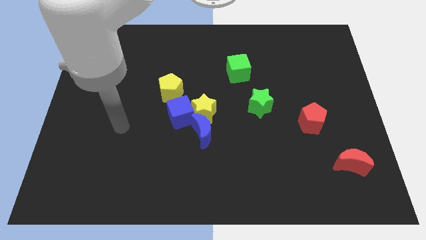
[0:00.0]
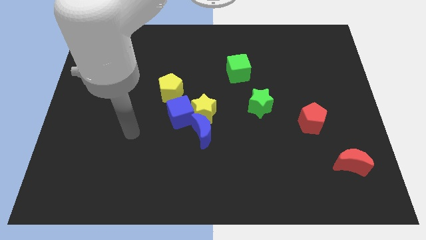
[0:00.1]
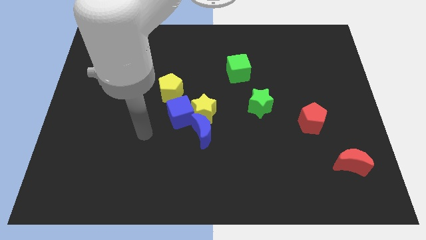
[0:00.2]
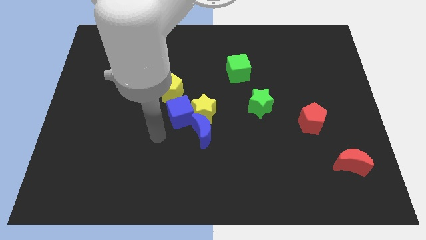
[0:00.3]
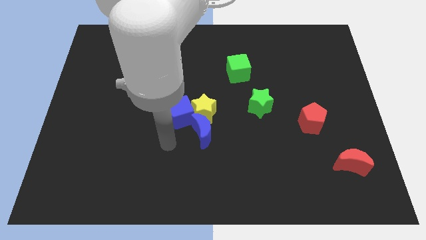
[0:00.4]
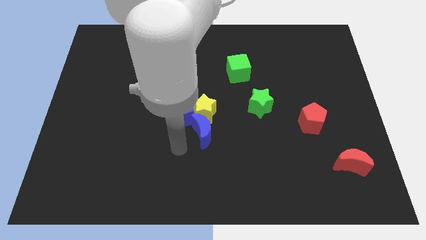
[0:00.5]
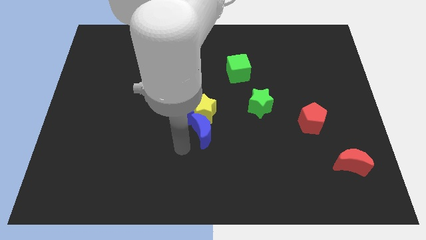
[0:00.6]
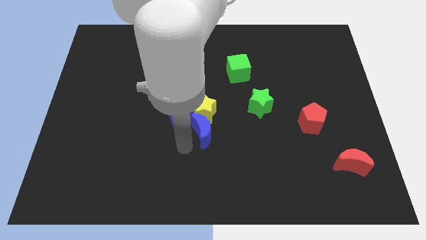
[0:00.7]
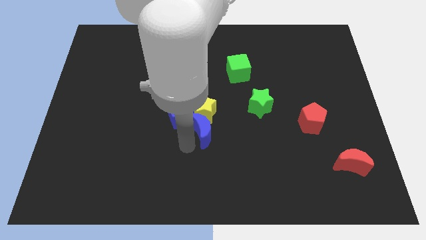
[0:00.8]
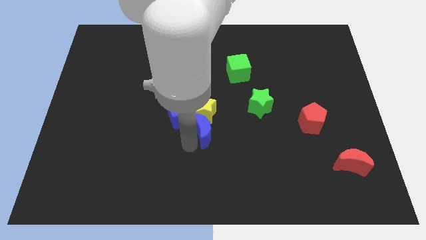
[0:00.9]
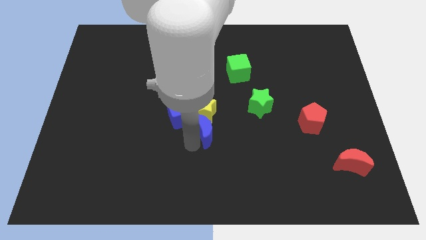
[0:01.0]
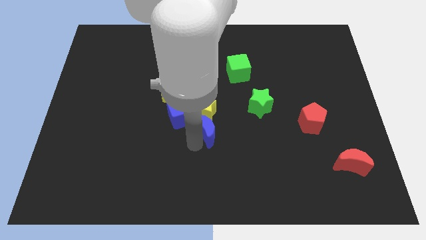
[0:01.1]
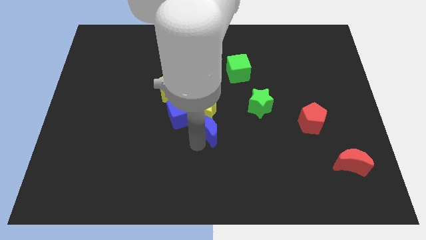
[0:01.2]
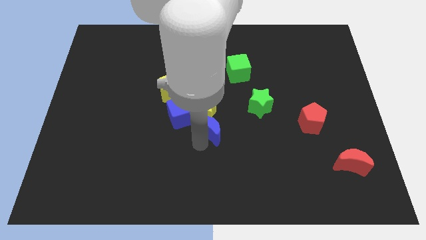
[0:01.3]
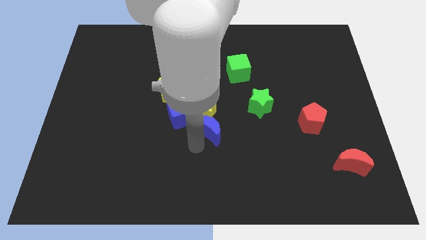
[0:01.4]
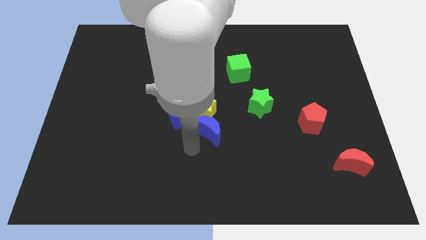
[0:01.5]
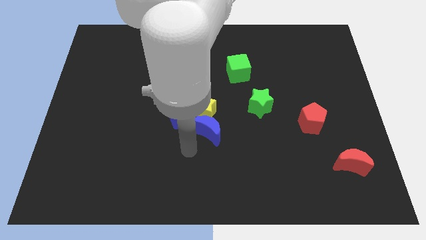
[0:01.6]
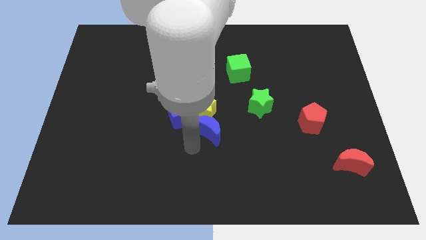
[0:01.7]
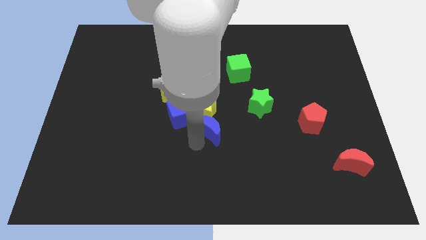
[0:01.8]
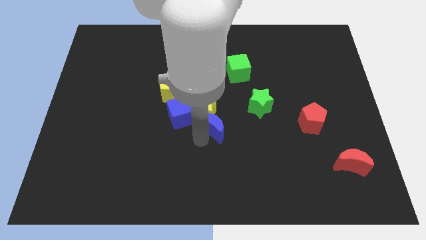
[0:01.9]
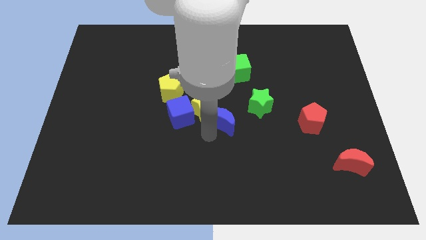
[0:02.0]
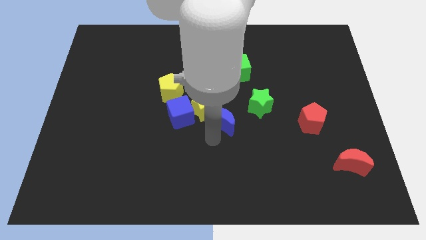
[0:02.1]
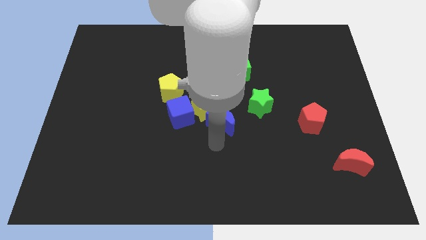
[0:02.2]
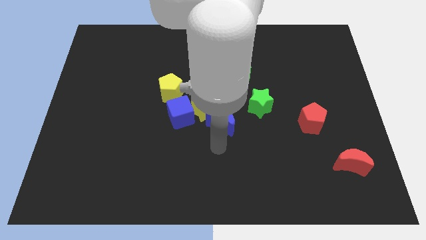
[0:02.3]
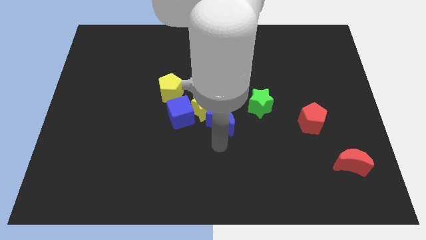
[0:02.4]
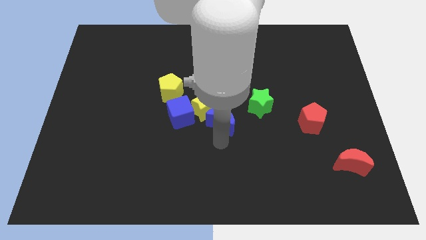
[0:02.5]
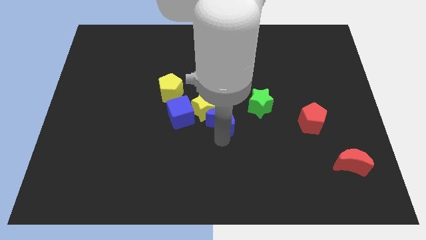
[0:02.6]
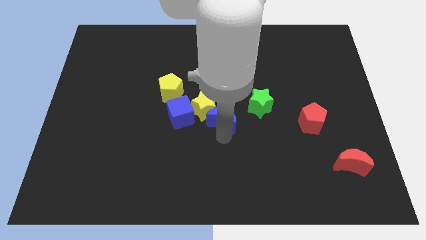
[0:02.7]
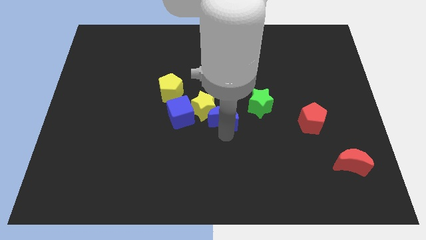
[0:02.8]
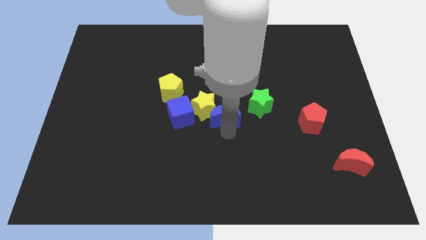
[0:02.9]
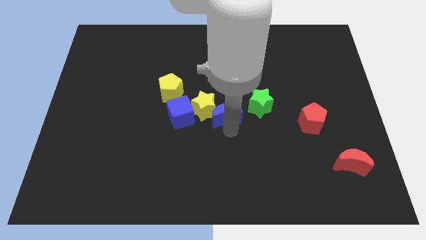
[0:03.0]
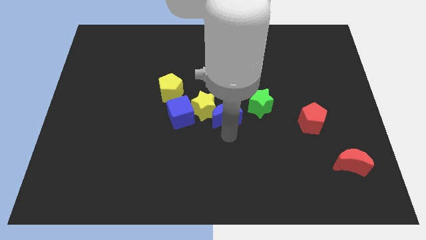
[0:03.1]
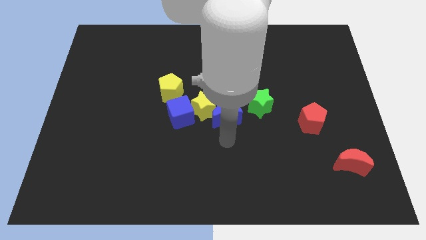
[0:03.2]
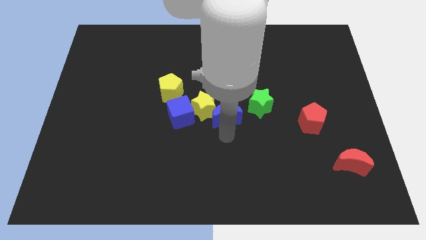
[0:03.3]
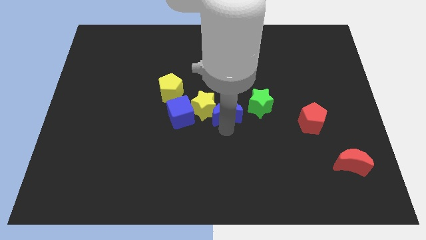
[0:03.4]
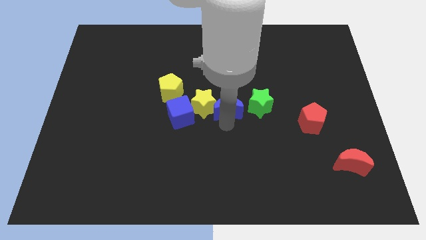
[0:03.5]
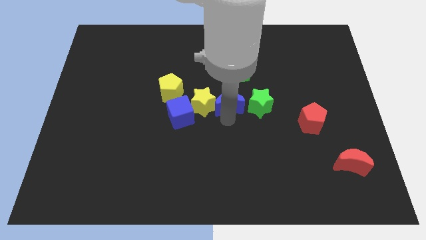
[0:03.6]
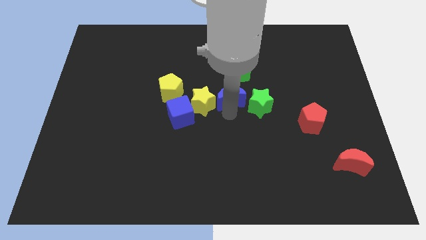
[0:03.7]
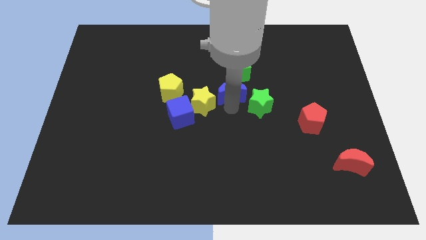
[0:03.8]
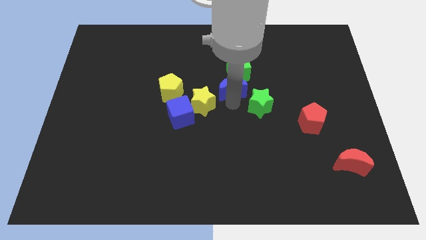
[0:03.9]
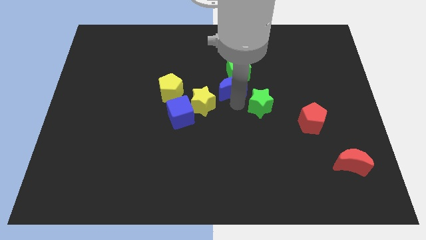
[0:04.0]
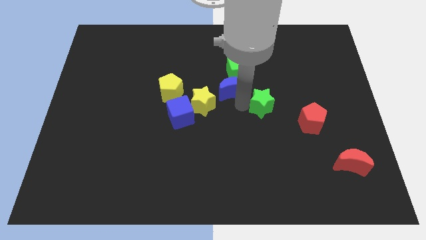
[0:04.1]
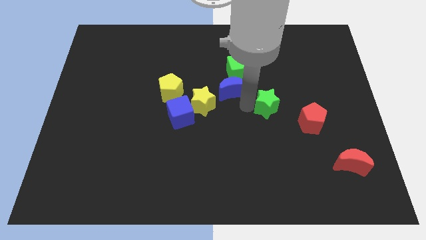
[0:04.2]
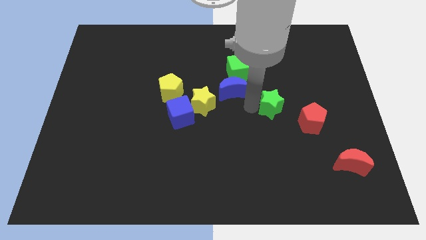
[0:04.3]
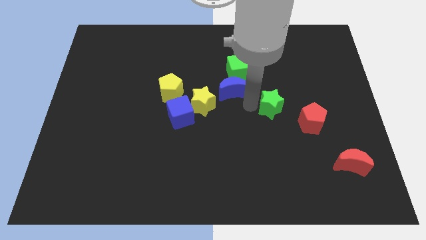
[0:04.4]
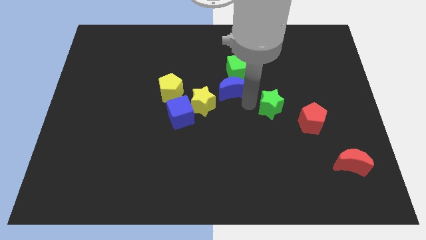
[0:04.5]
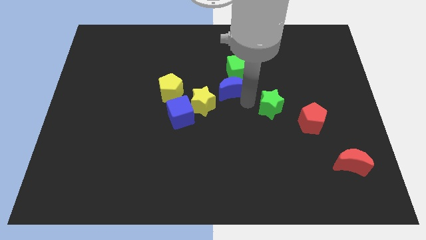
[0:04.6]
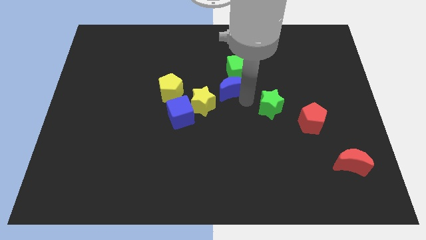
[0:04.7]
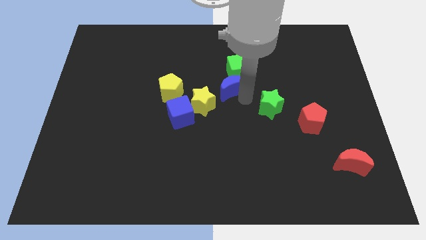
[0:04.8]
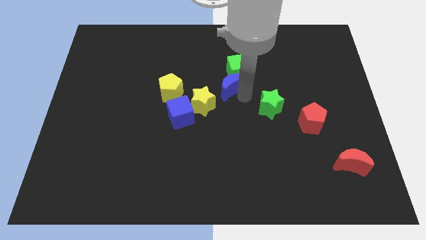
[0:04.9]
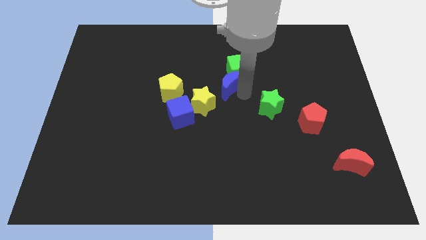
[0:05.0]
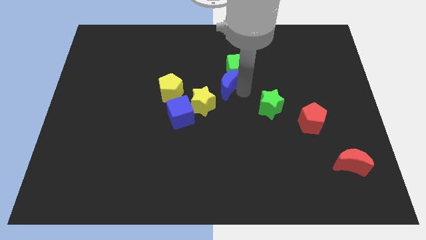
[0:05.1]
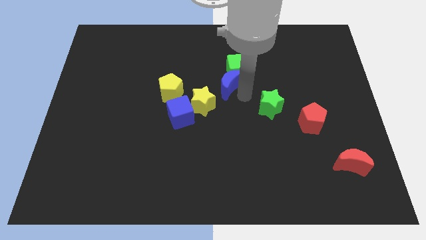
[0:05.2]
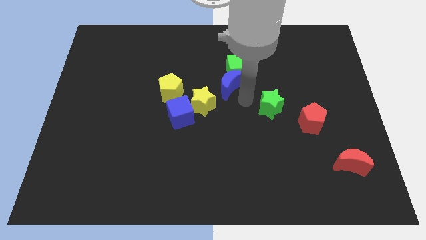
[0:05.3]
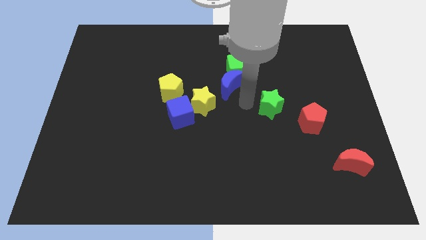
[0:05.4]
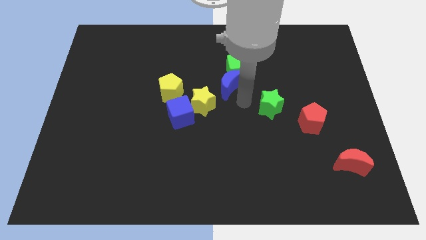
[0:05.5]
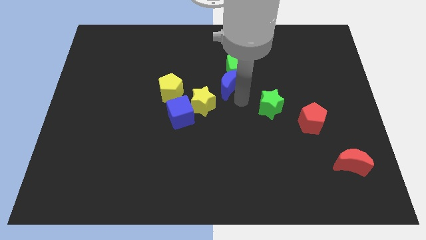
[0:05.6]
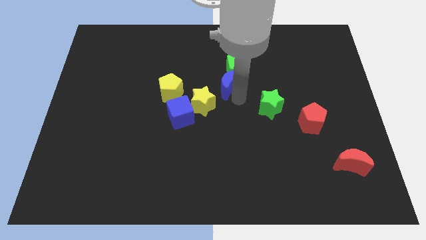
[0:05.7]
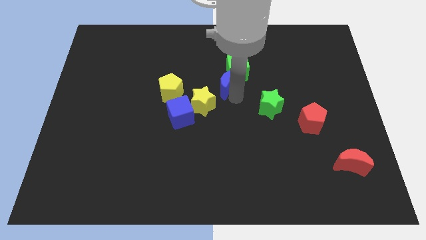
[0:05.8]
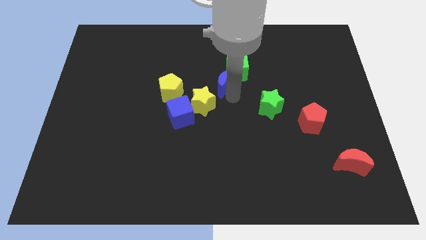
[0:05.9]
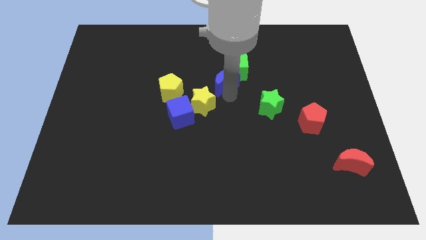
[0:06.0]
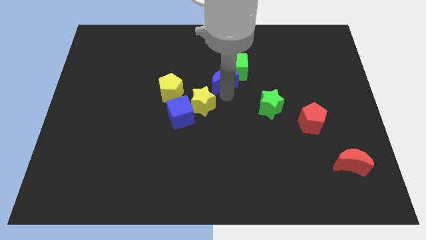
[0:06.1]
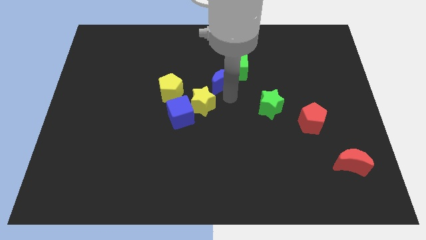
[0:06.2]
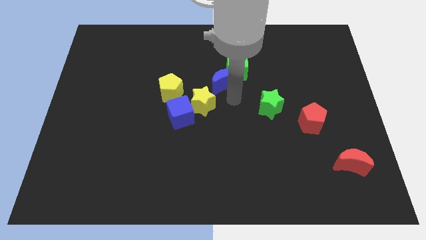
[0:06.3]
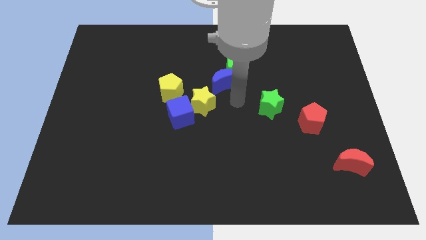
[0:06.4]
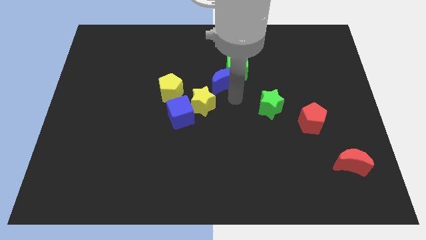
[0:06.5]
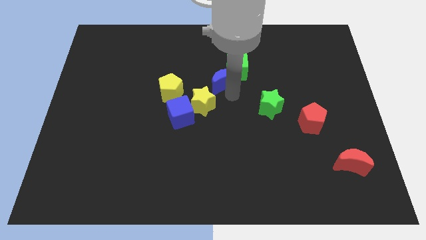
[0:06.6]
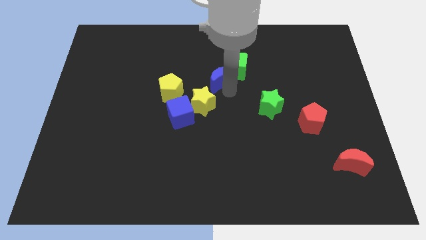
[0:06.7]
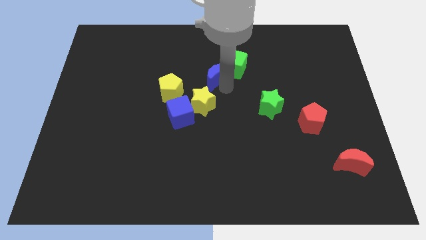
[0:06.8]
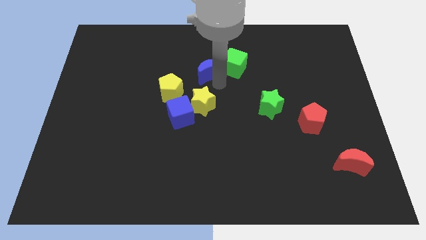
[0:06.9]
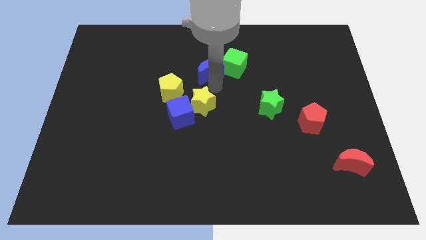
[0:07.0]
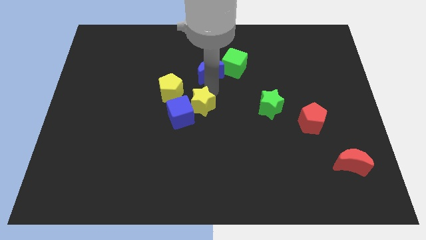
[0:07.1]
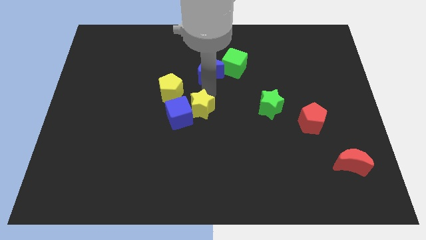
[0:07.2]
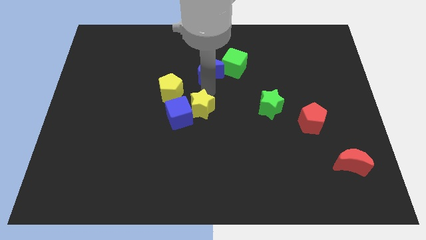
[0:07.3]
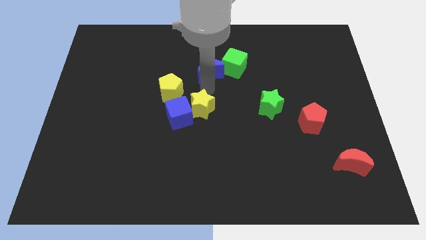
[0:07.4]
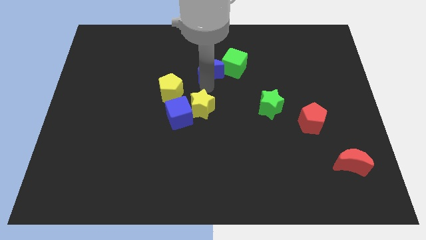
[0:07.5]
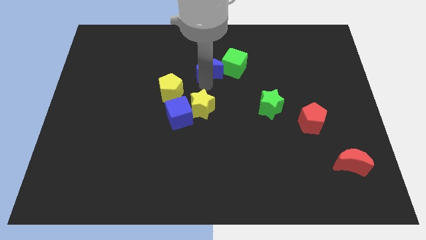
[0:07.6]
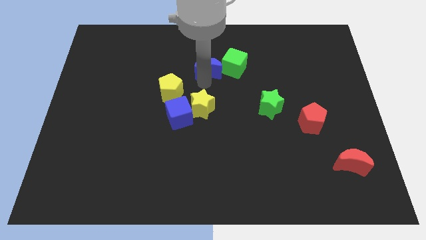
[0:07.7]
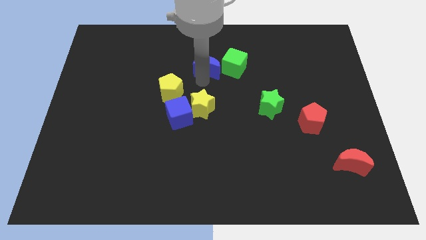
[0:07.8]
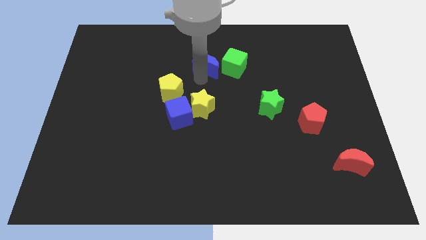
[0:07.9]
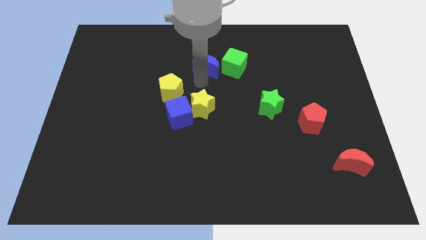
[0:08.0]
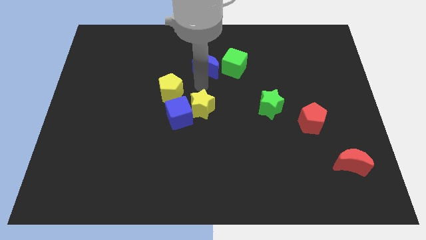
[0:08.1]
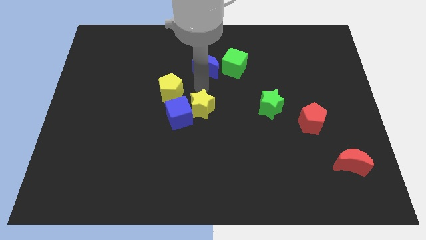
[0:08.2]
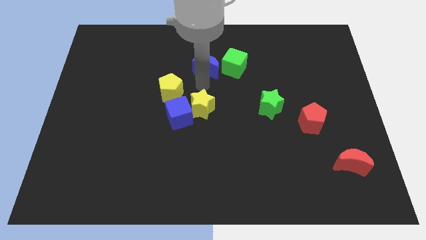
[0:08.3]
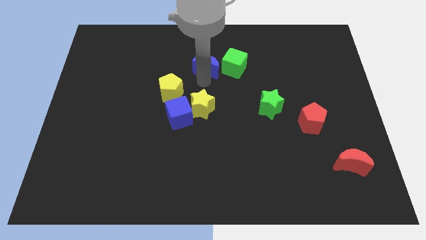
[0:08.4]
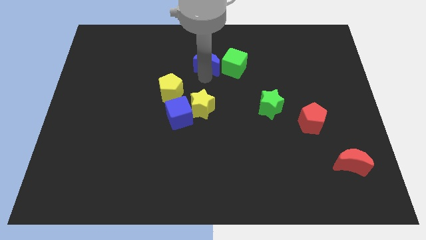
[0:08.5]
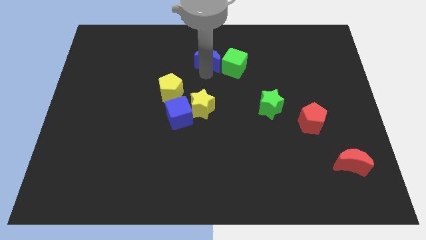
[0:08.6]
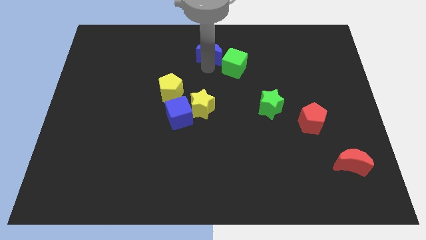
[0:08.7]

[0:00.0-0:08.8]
put the blue moon to the top side
